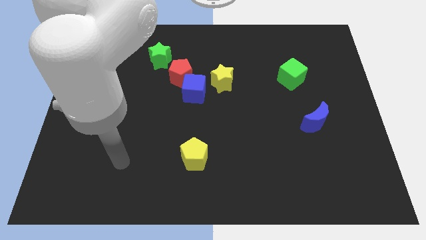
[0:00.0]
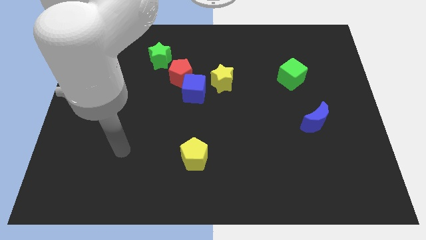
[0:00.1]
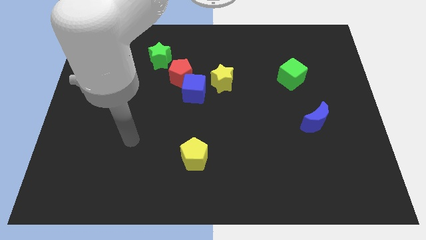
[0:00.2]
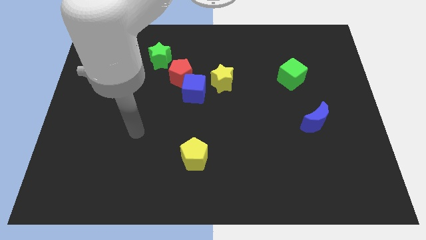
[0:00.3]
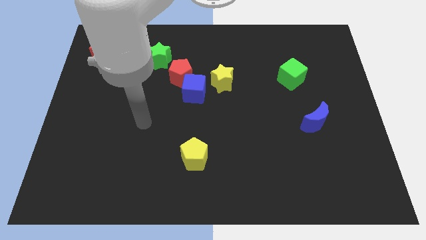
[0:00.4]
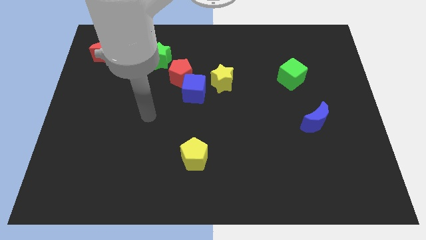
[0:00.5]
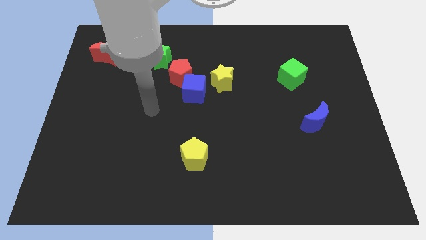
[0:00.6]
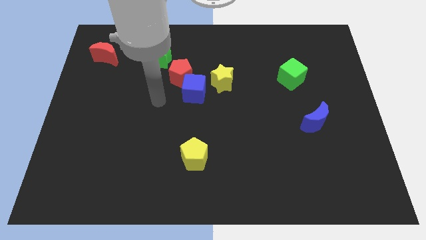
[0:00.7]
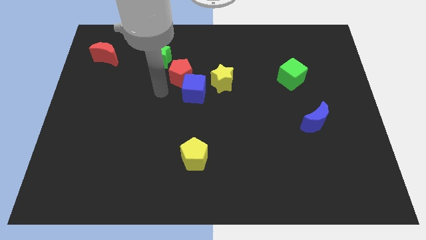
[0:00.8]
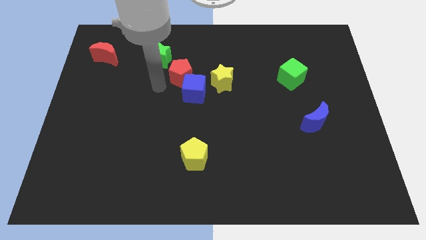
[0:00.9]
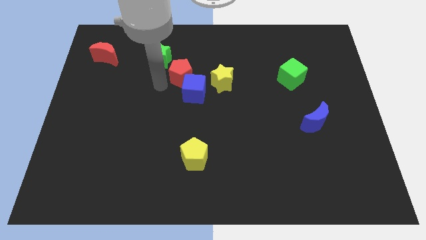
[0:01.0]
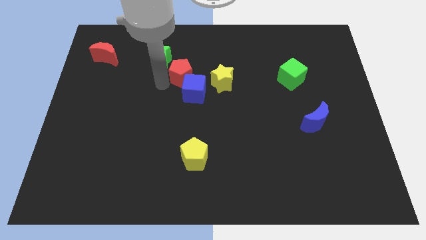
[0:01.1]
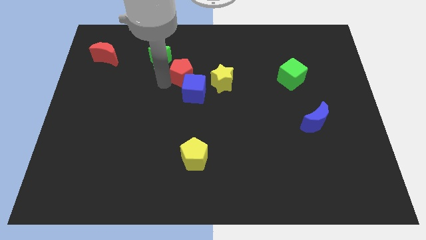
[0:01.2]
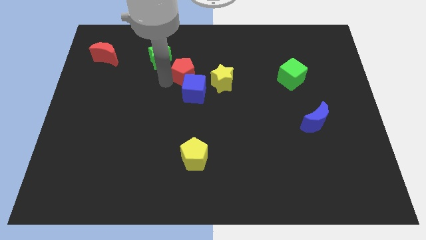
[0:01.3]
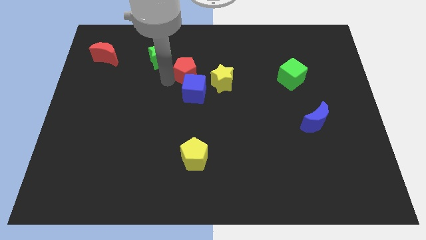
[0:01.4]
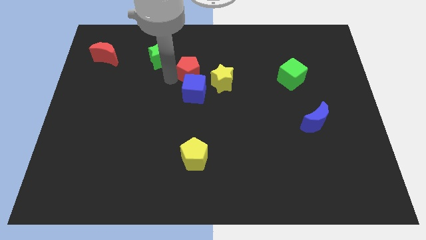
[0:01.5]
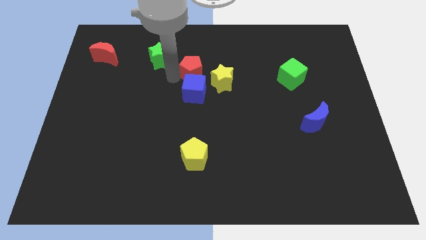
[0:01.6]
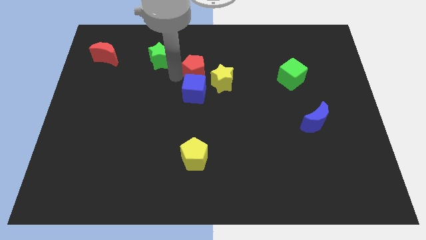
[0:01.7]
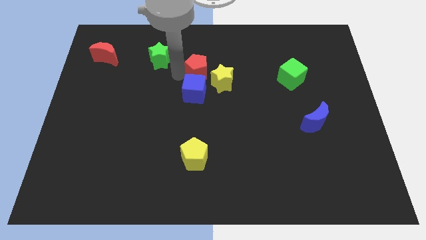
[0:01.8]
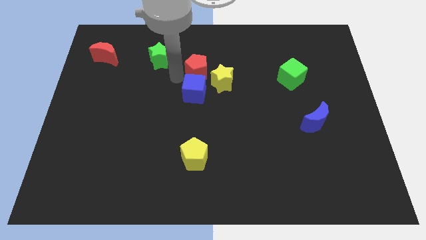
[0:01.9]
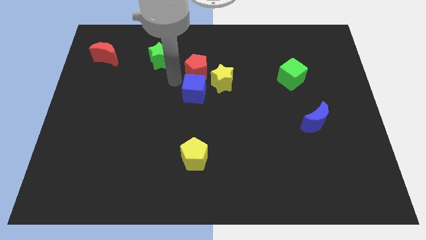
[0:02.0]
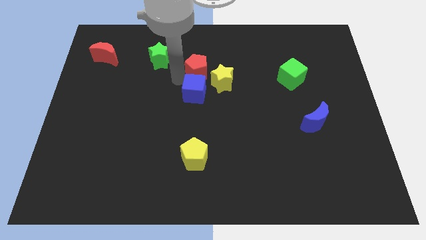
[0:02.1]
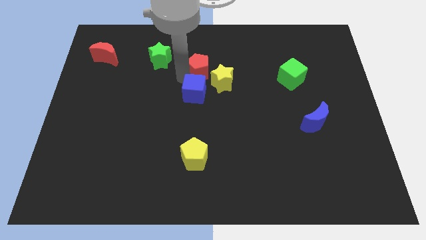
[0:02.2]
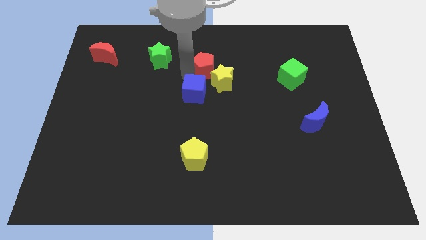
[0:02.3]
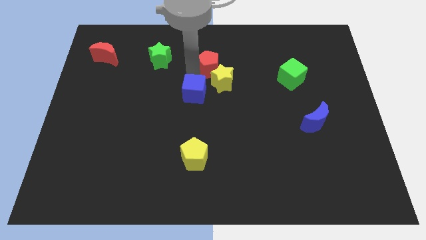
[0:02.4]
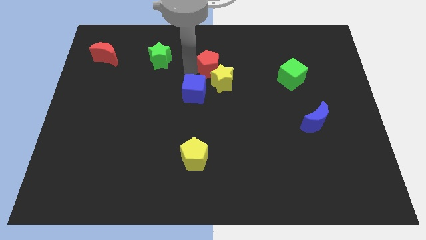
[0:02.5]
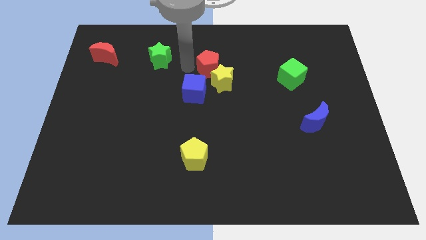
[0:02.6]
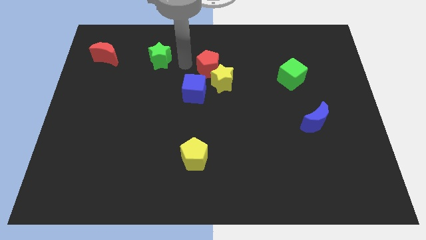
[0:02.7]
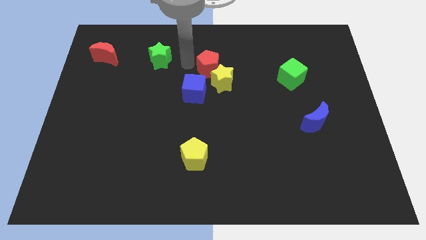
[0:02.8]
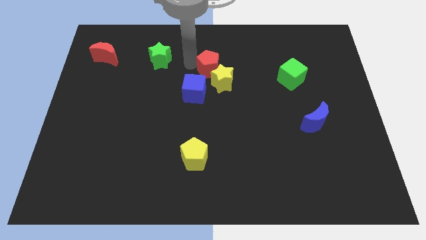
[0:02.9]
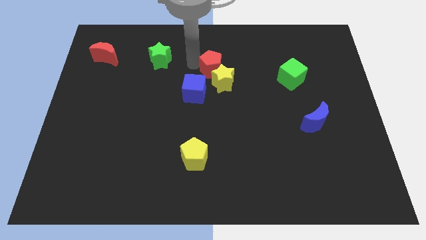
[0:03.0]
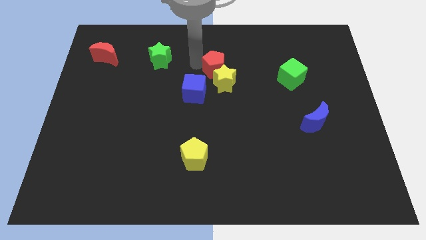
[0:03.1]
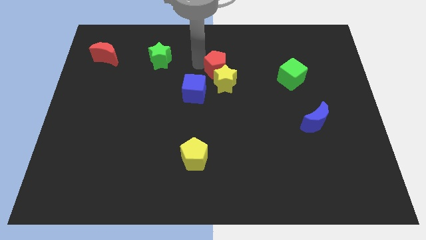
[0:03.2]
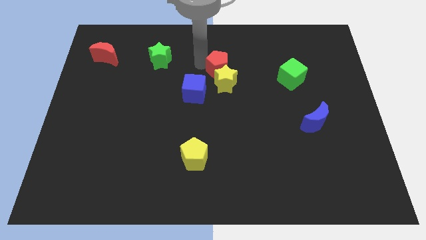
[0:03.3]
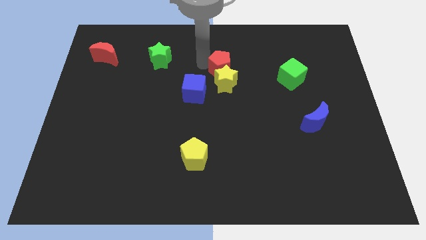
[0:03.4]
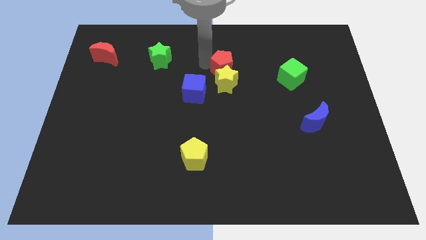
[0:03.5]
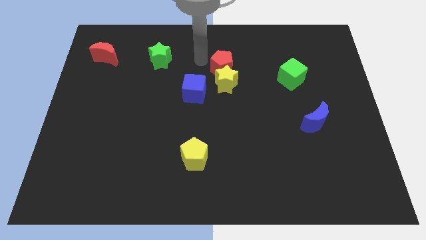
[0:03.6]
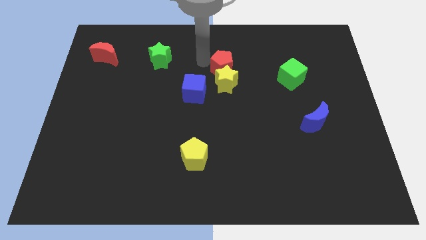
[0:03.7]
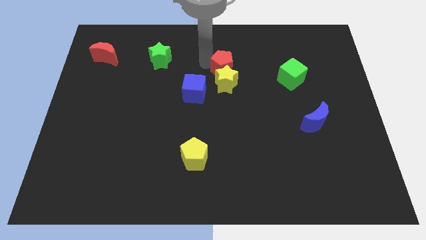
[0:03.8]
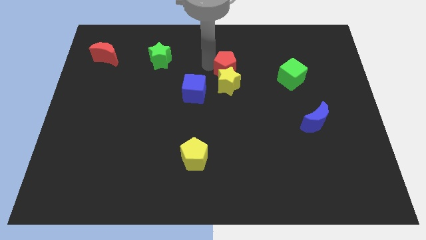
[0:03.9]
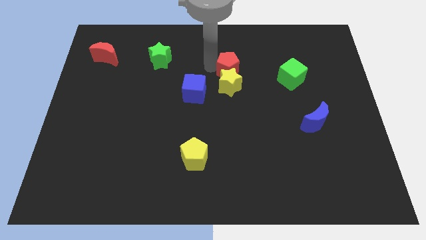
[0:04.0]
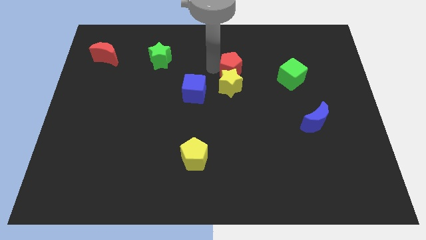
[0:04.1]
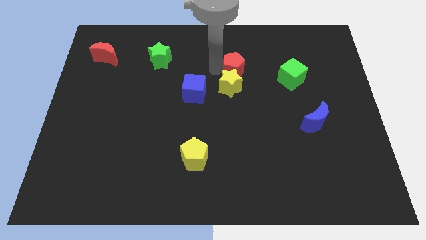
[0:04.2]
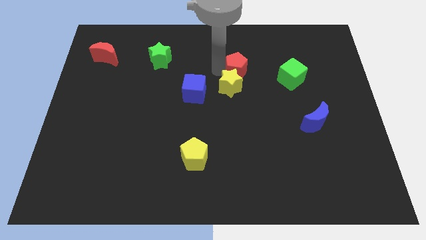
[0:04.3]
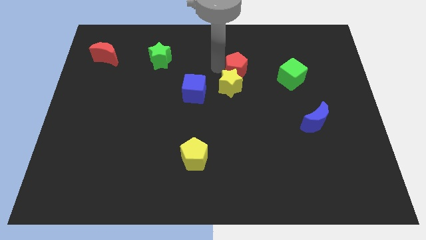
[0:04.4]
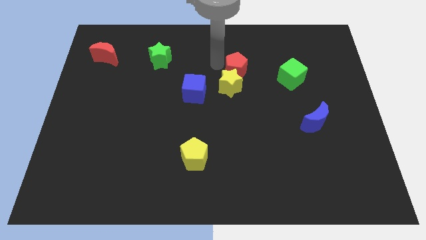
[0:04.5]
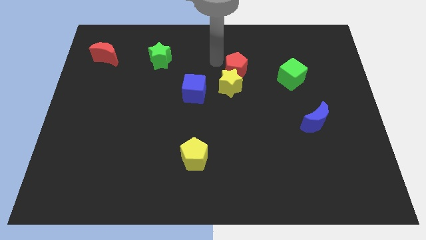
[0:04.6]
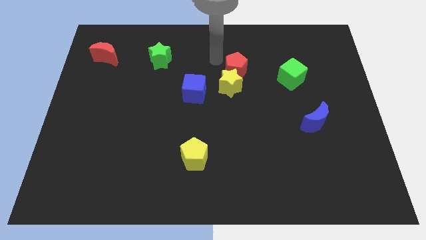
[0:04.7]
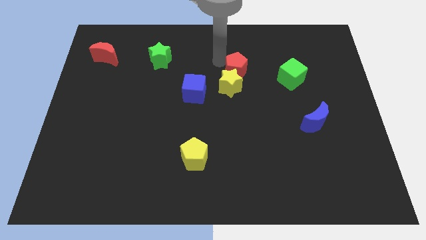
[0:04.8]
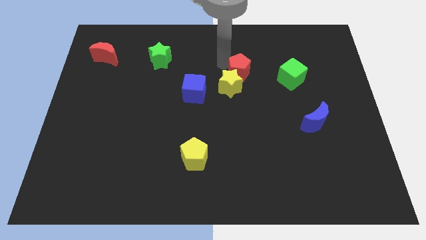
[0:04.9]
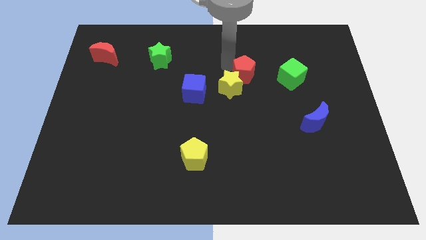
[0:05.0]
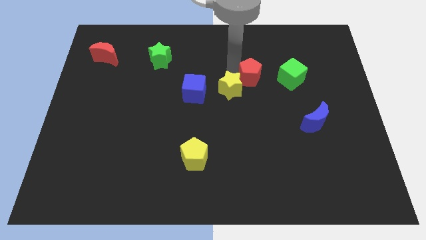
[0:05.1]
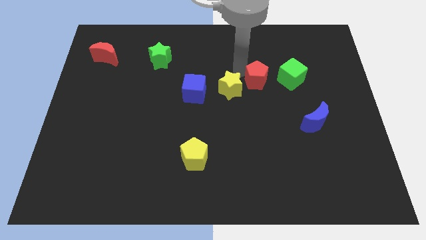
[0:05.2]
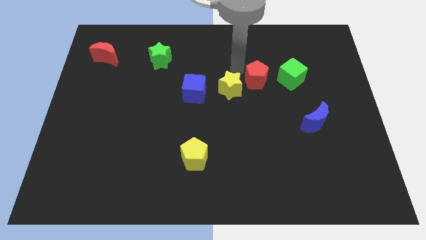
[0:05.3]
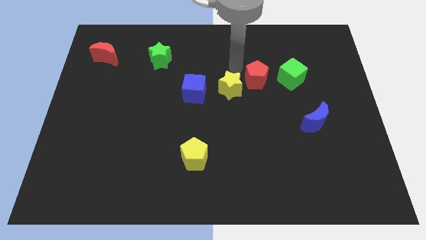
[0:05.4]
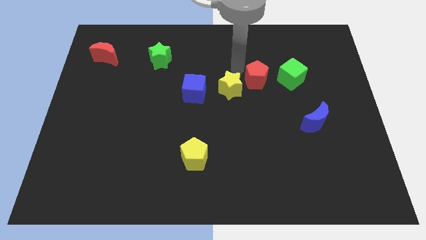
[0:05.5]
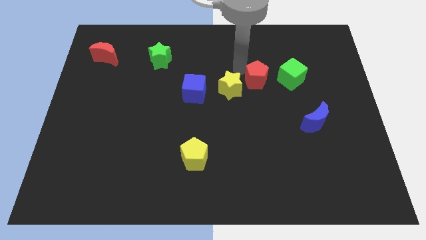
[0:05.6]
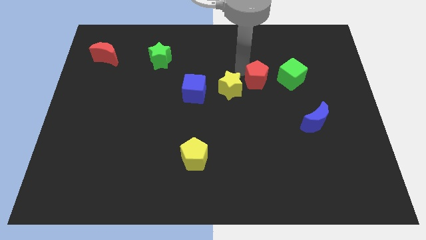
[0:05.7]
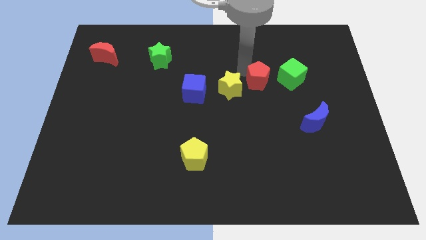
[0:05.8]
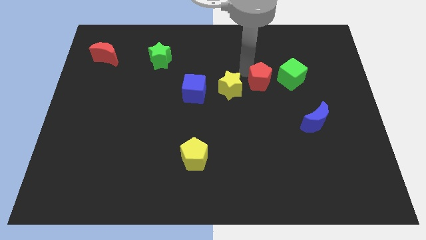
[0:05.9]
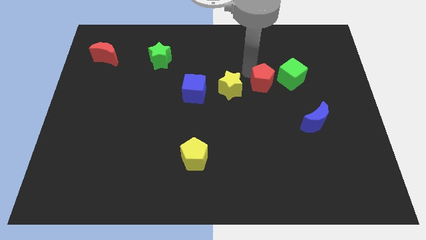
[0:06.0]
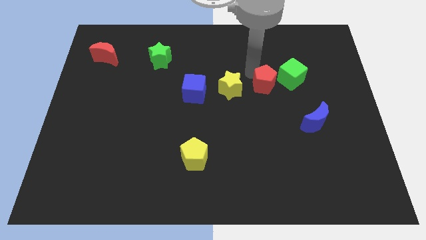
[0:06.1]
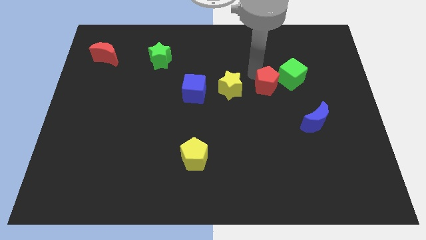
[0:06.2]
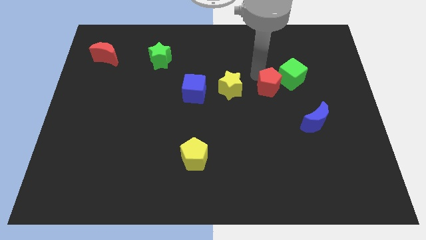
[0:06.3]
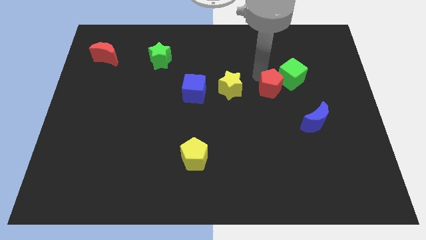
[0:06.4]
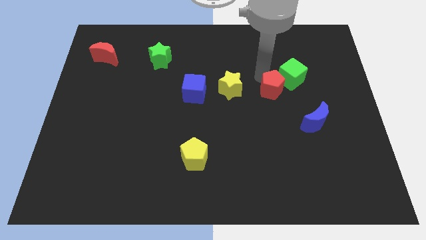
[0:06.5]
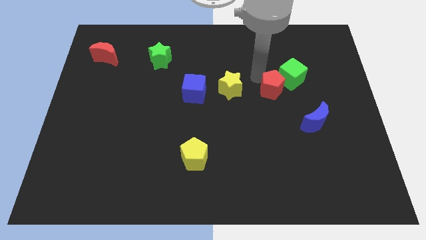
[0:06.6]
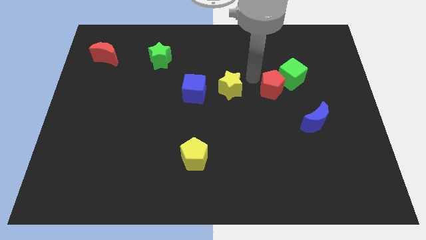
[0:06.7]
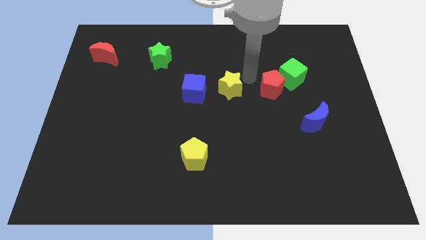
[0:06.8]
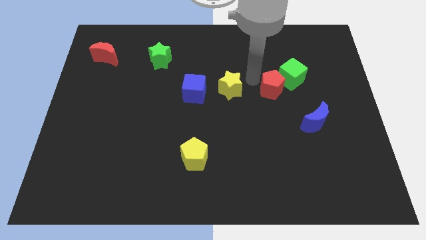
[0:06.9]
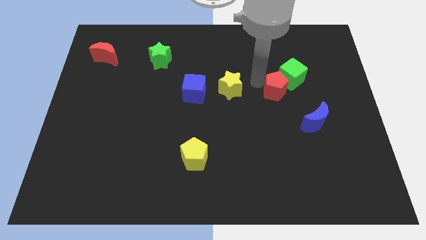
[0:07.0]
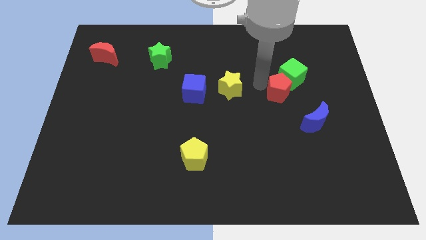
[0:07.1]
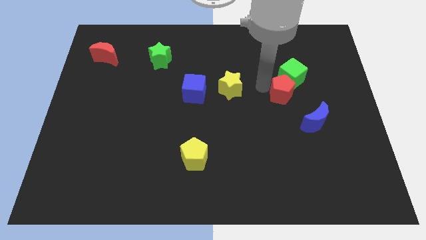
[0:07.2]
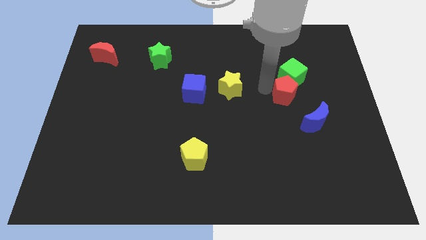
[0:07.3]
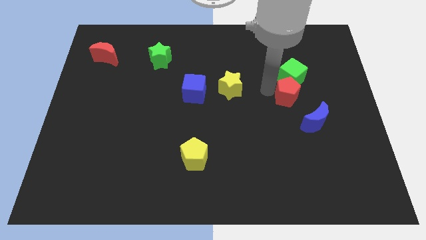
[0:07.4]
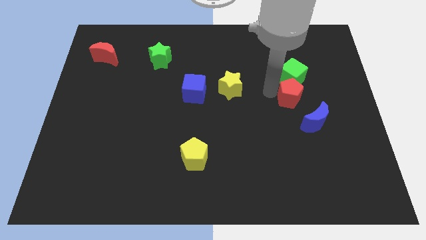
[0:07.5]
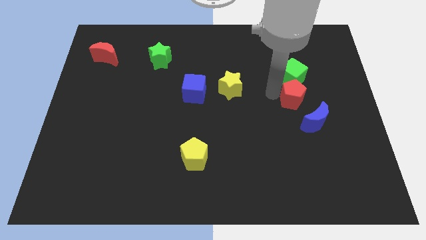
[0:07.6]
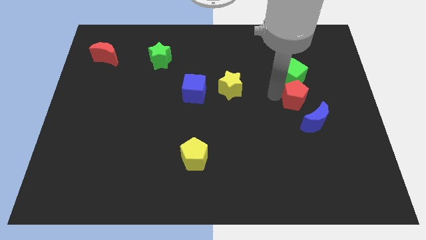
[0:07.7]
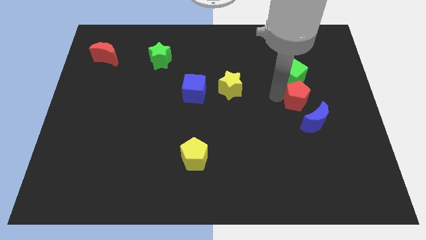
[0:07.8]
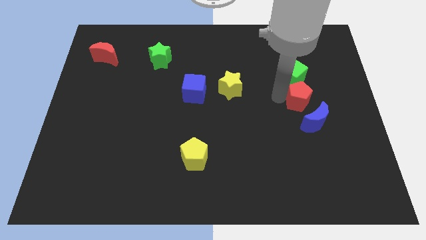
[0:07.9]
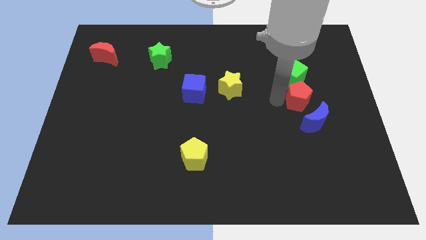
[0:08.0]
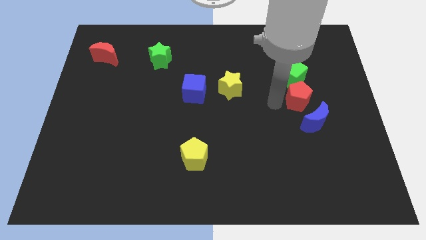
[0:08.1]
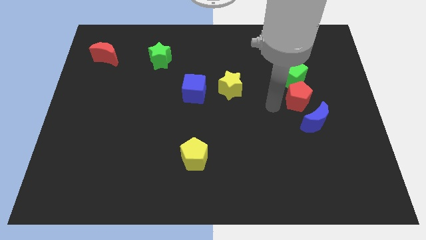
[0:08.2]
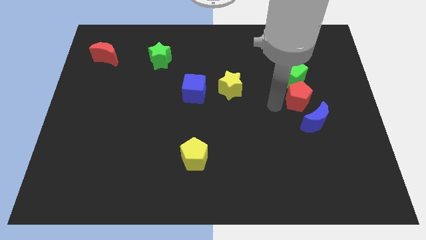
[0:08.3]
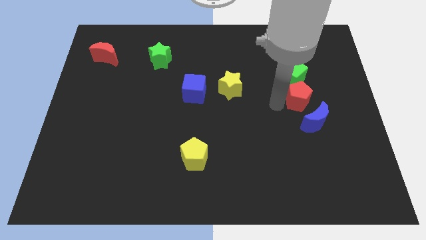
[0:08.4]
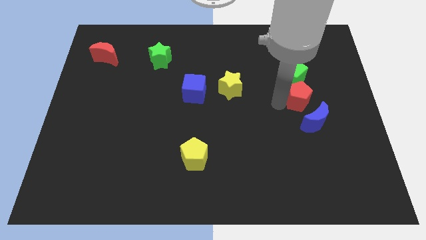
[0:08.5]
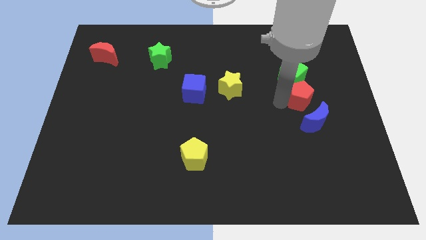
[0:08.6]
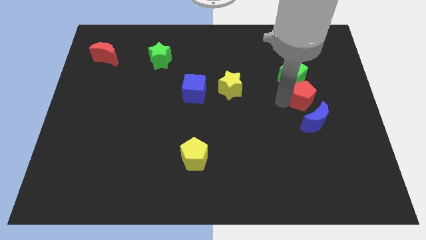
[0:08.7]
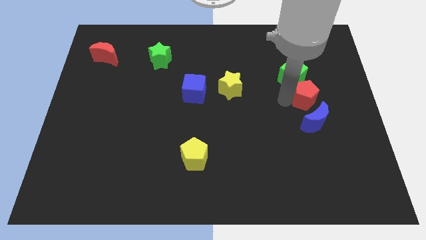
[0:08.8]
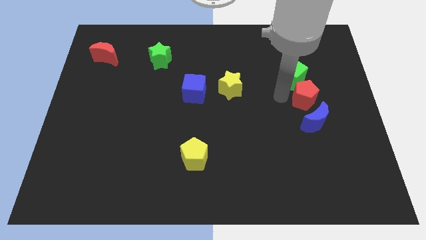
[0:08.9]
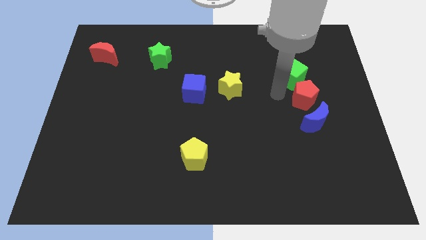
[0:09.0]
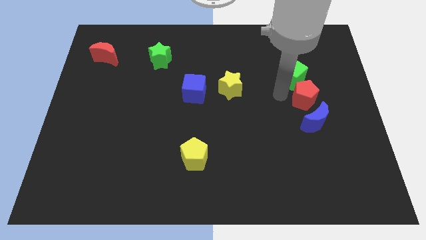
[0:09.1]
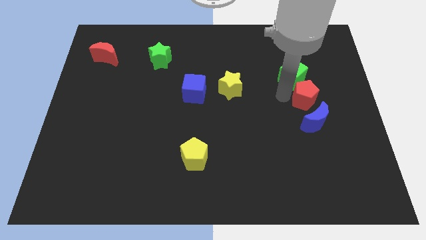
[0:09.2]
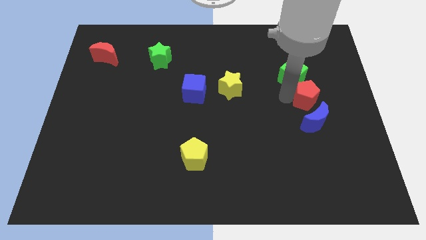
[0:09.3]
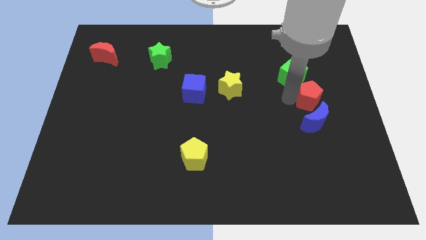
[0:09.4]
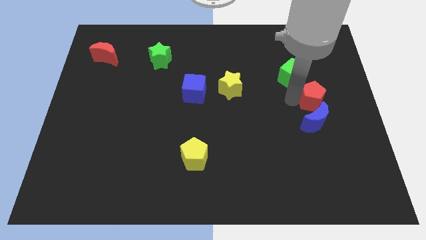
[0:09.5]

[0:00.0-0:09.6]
slide the red pentagon to the top right side of the blue moon
